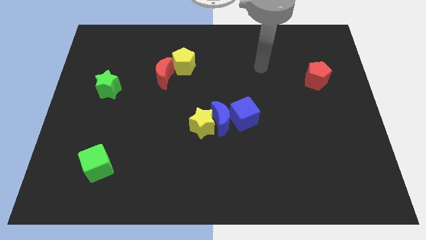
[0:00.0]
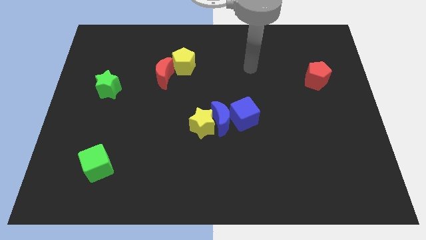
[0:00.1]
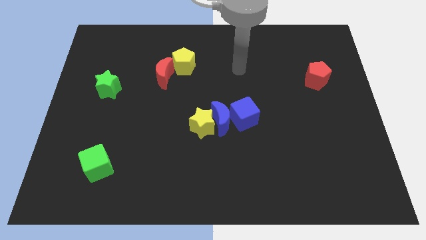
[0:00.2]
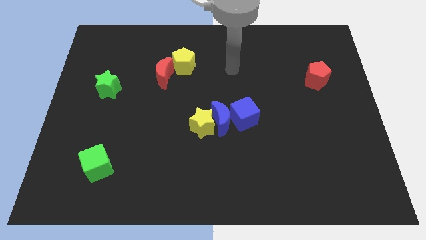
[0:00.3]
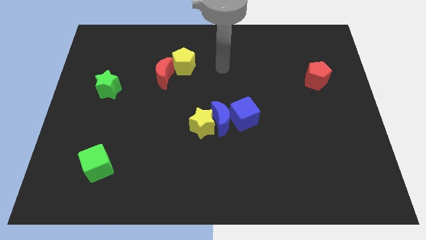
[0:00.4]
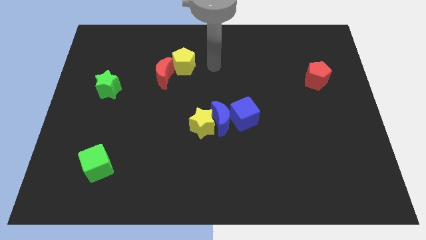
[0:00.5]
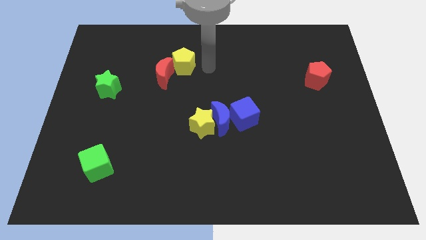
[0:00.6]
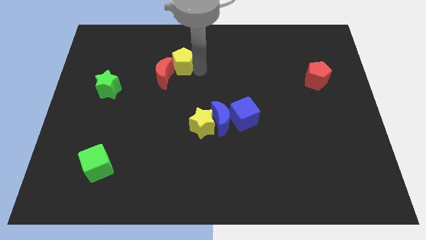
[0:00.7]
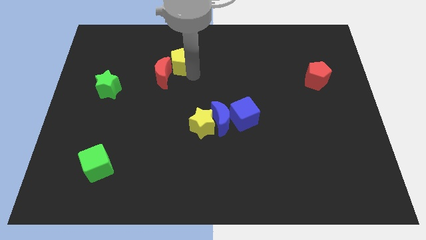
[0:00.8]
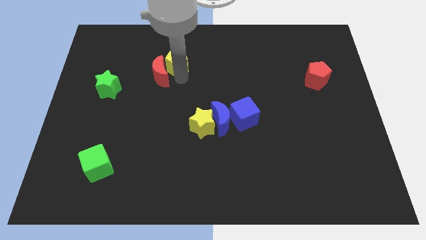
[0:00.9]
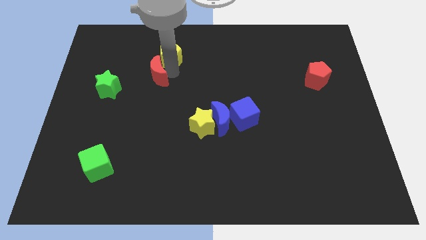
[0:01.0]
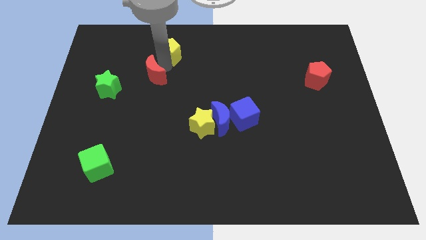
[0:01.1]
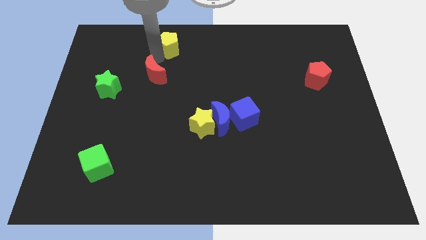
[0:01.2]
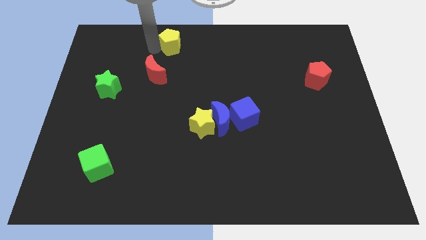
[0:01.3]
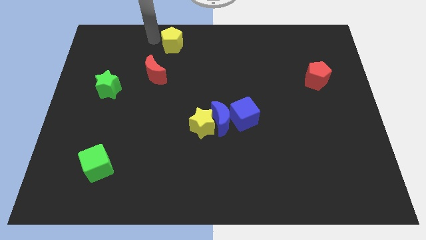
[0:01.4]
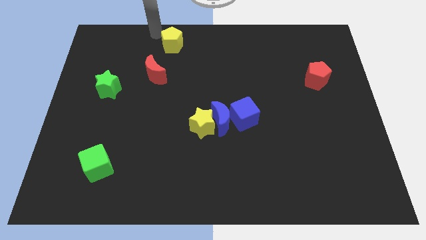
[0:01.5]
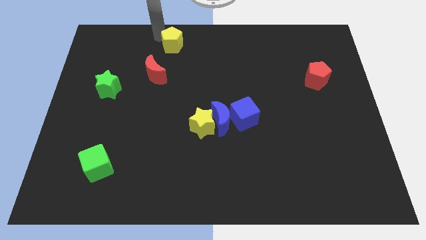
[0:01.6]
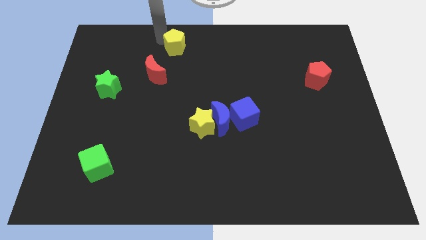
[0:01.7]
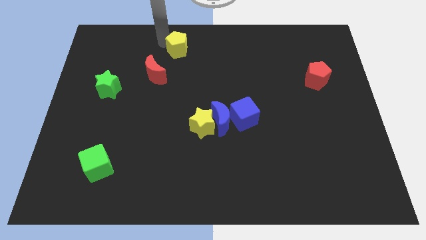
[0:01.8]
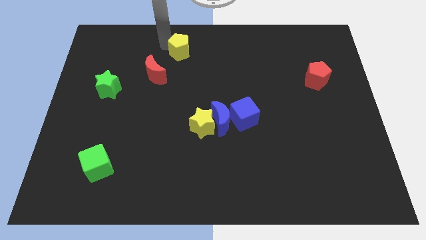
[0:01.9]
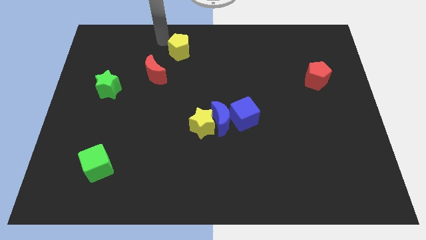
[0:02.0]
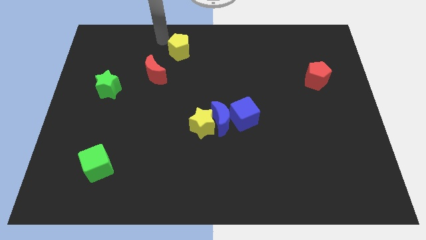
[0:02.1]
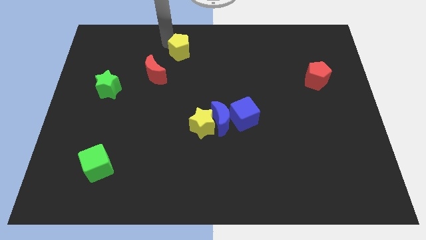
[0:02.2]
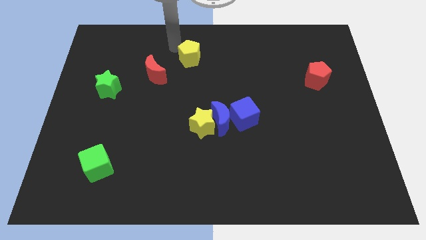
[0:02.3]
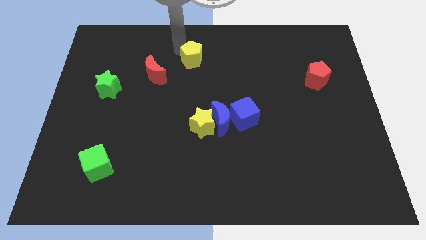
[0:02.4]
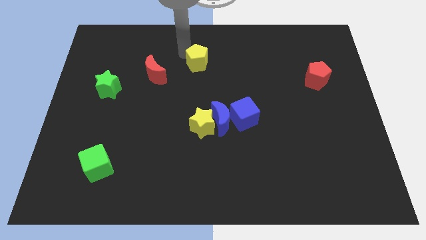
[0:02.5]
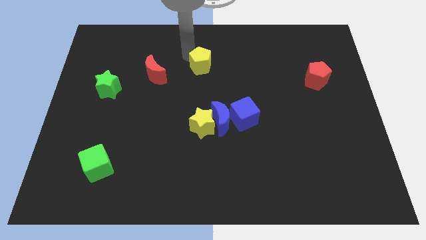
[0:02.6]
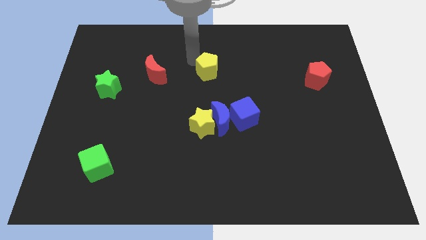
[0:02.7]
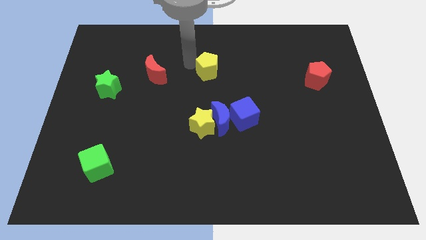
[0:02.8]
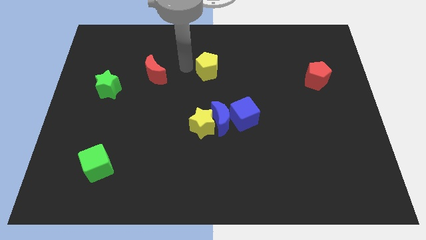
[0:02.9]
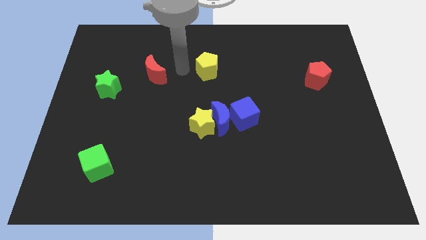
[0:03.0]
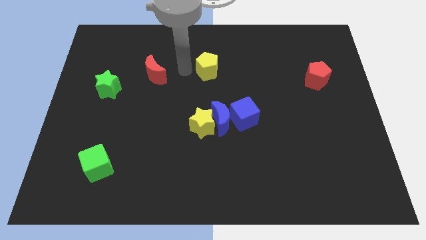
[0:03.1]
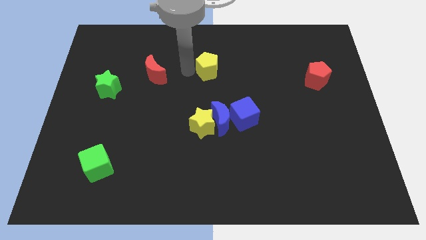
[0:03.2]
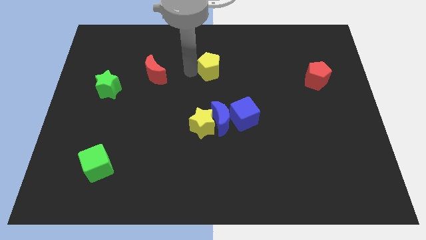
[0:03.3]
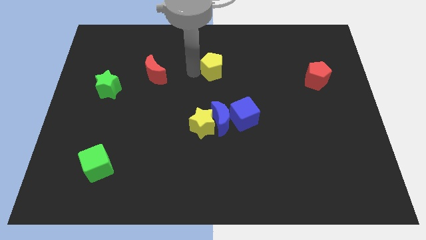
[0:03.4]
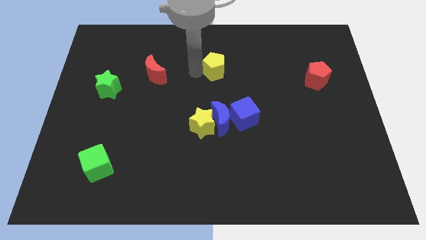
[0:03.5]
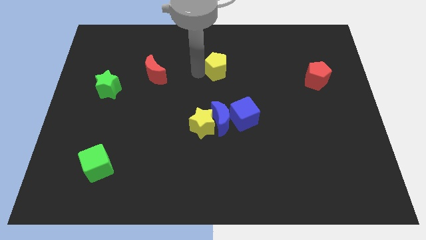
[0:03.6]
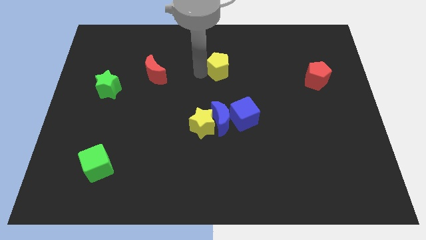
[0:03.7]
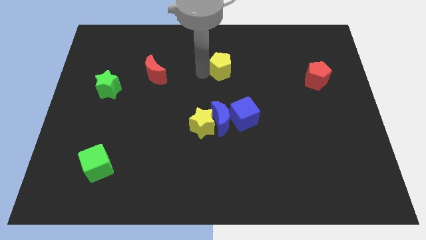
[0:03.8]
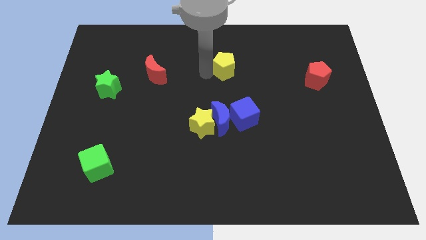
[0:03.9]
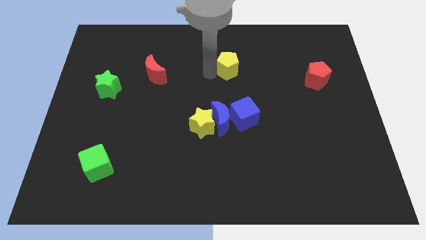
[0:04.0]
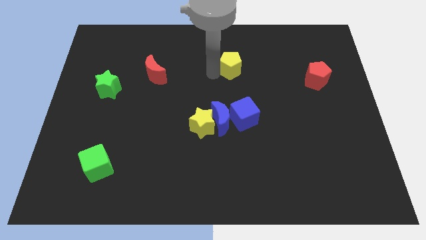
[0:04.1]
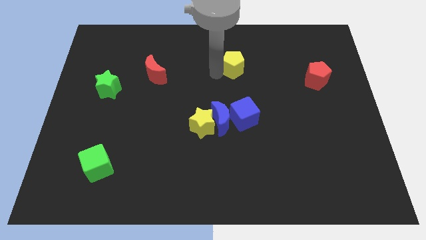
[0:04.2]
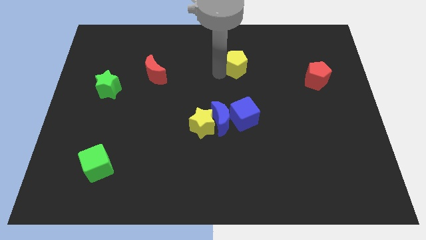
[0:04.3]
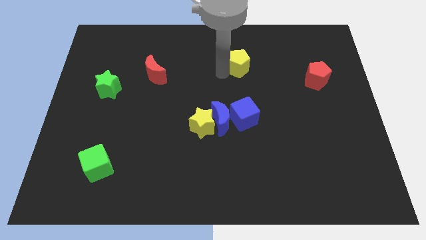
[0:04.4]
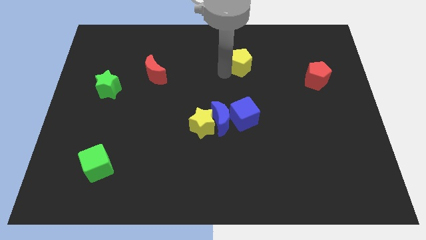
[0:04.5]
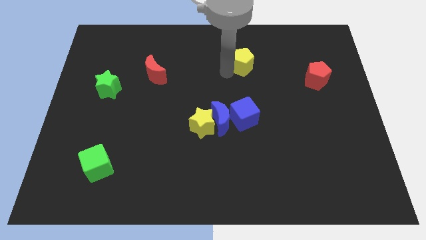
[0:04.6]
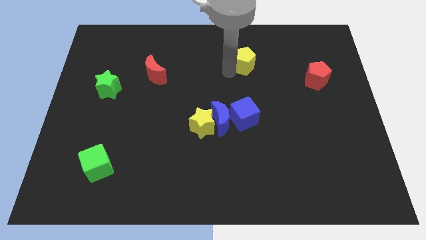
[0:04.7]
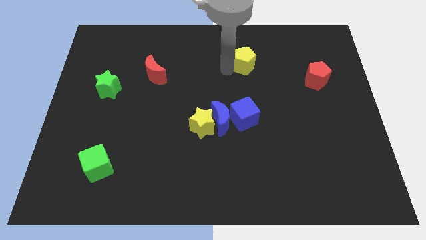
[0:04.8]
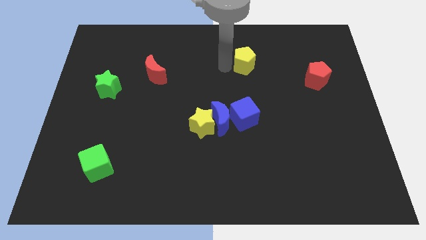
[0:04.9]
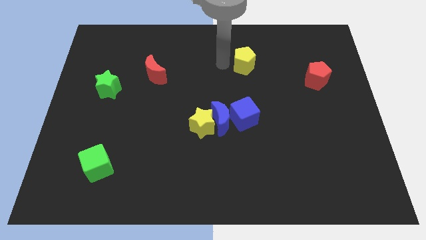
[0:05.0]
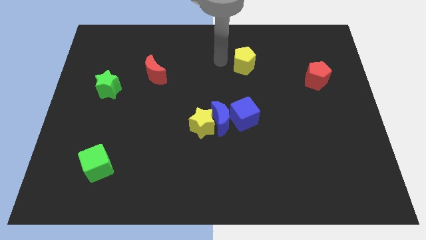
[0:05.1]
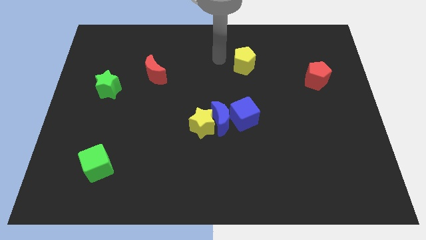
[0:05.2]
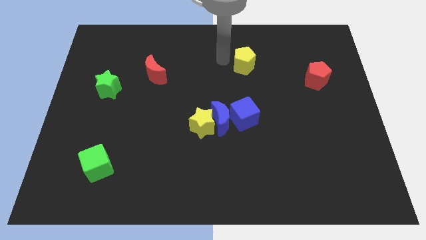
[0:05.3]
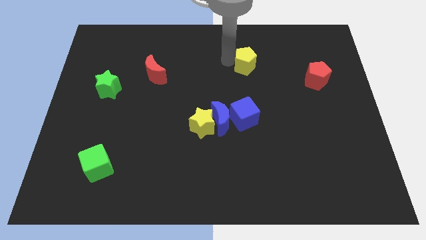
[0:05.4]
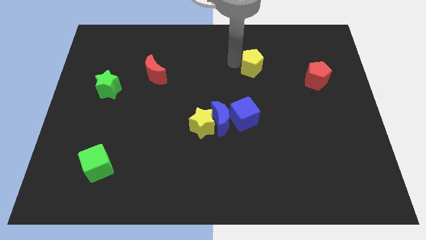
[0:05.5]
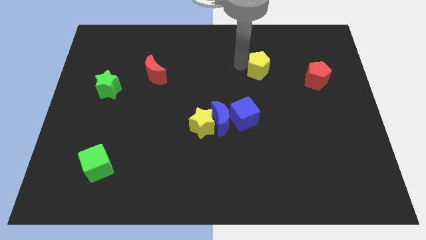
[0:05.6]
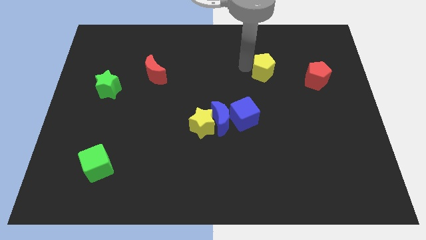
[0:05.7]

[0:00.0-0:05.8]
push the yellow pentagon right

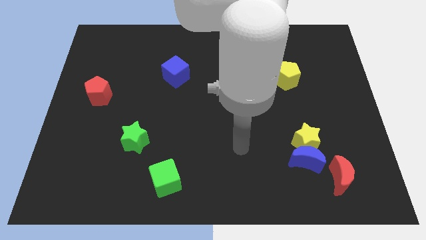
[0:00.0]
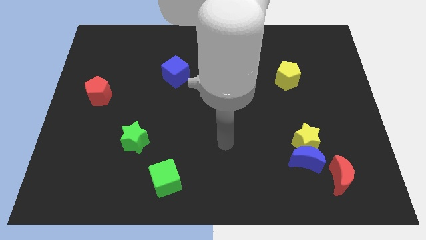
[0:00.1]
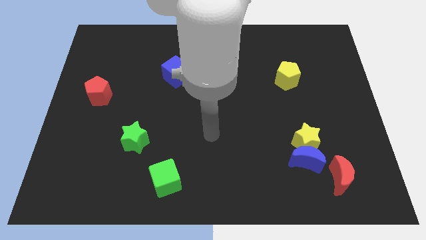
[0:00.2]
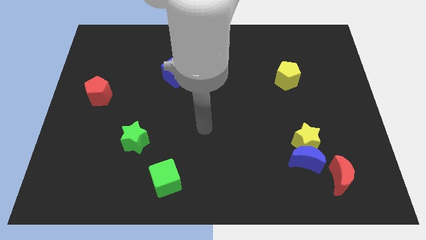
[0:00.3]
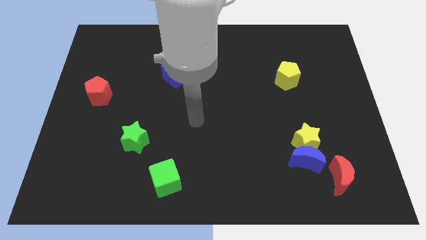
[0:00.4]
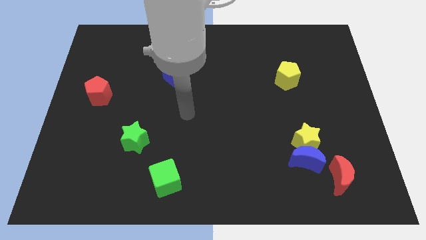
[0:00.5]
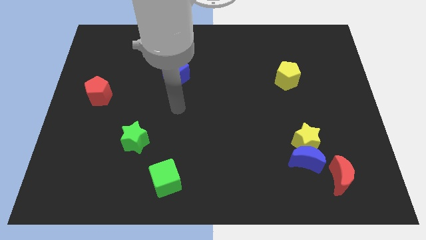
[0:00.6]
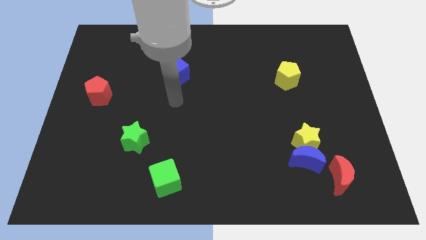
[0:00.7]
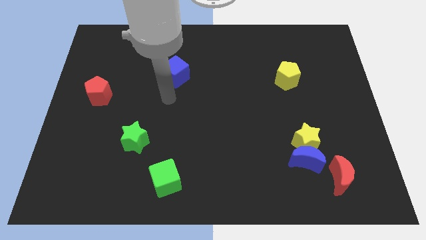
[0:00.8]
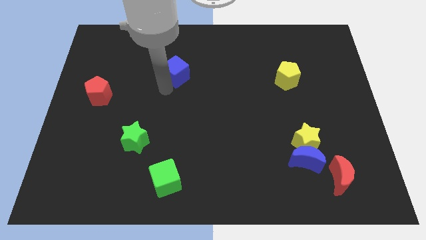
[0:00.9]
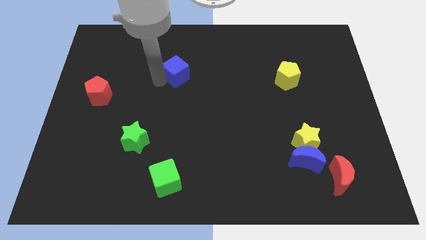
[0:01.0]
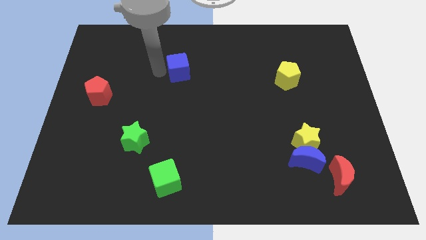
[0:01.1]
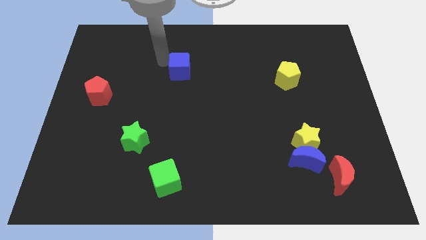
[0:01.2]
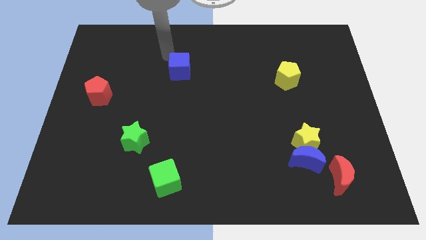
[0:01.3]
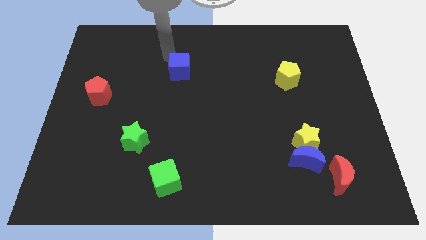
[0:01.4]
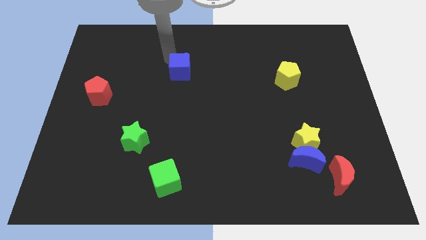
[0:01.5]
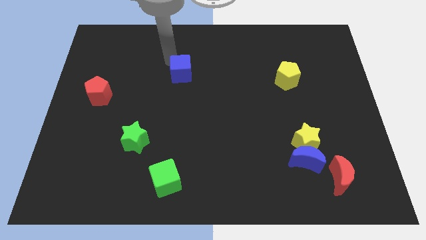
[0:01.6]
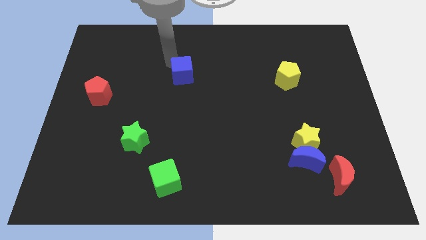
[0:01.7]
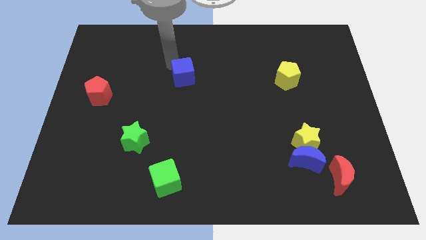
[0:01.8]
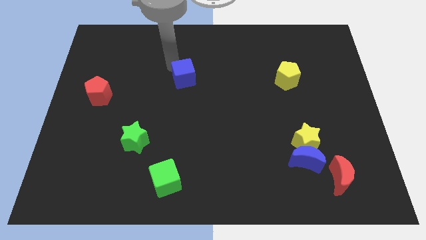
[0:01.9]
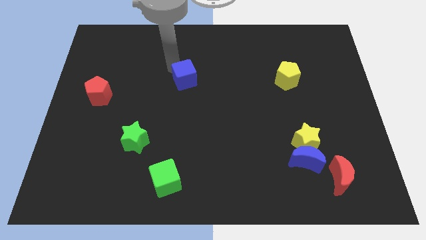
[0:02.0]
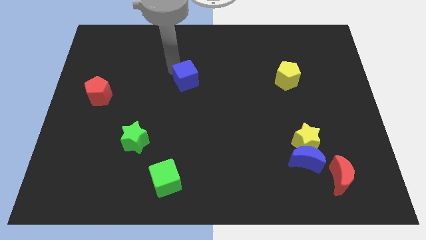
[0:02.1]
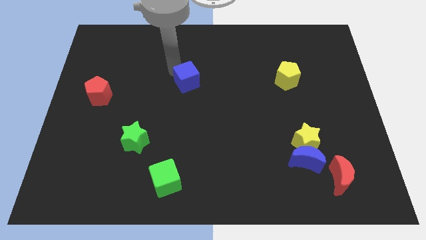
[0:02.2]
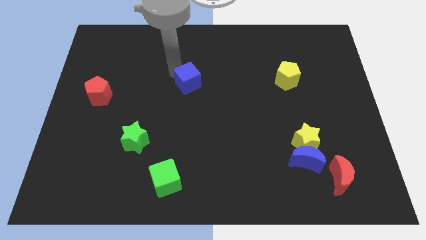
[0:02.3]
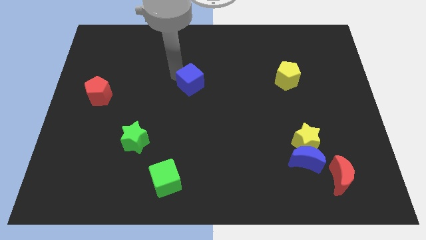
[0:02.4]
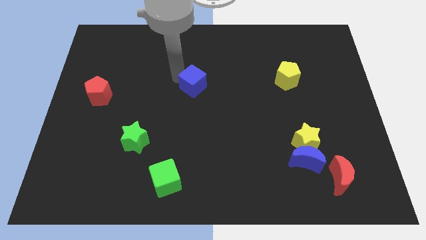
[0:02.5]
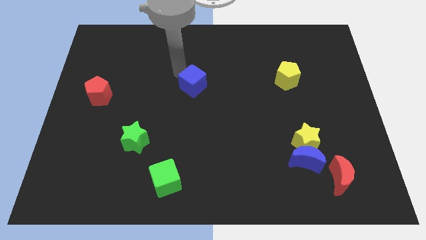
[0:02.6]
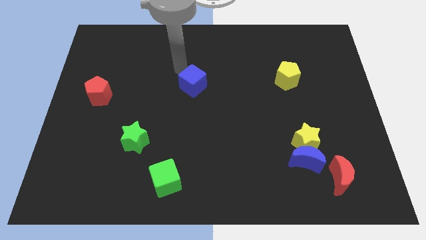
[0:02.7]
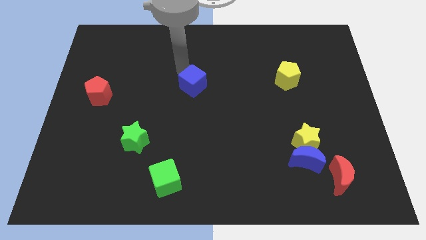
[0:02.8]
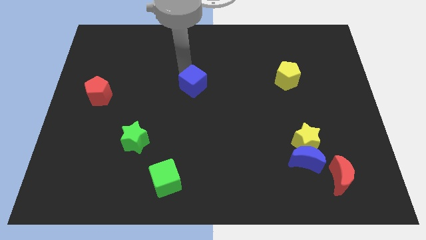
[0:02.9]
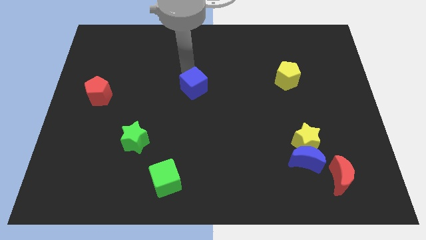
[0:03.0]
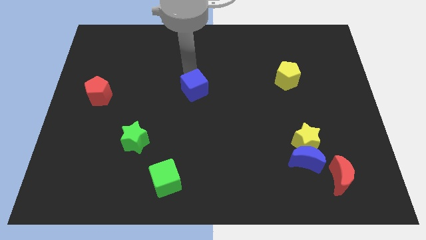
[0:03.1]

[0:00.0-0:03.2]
slightly move the blue cube down and then to the right
